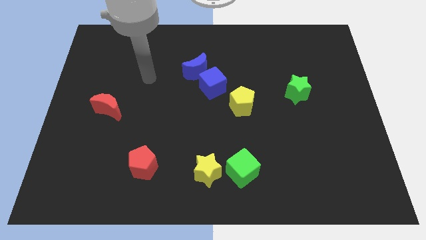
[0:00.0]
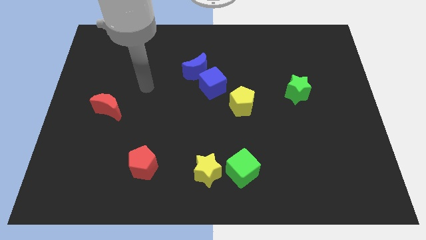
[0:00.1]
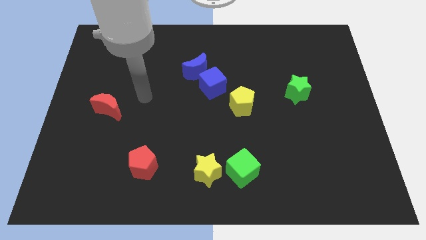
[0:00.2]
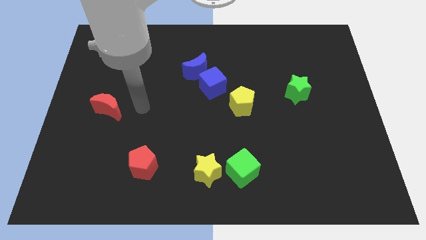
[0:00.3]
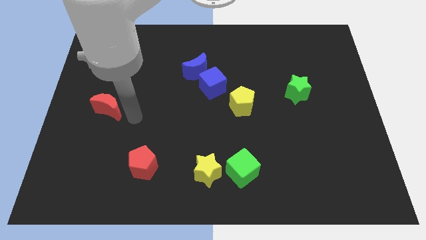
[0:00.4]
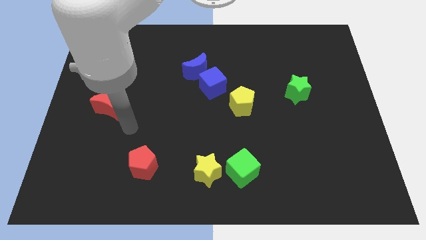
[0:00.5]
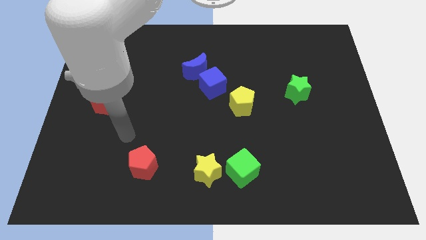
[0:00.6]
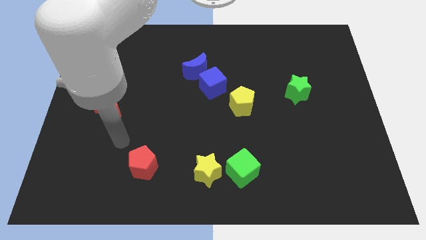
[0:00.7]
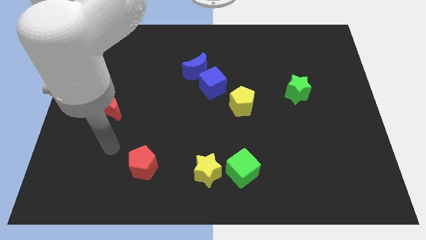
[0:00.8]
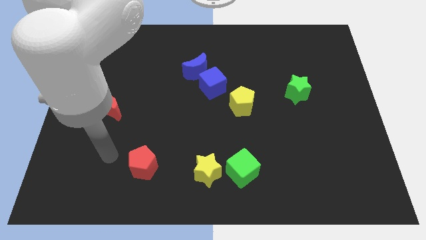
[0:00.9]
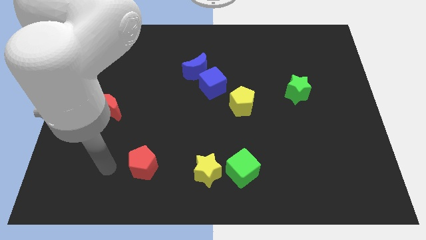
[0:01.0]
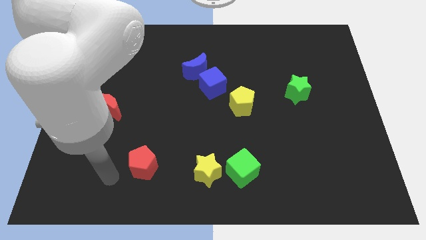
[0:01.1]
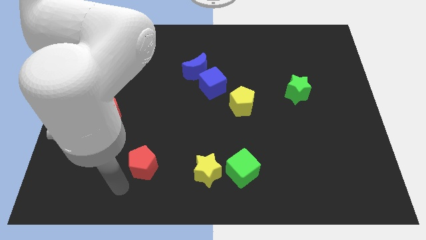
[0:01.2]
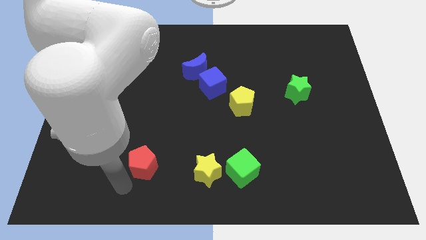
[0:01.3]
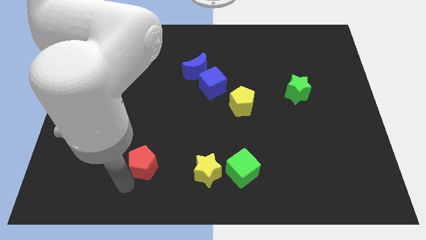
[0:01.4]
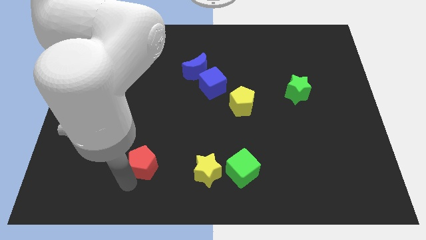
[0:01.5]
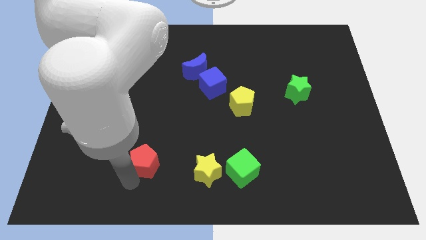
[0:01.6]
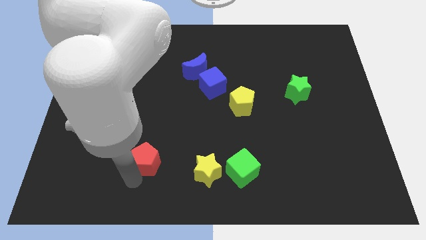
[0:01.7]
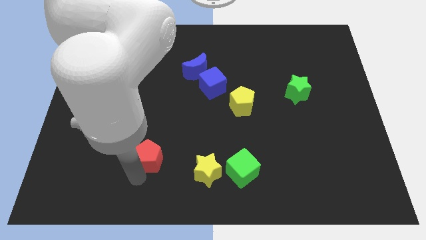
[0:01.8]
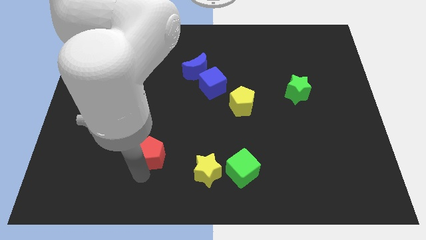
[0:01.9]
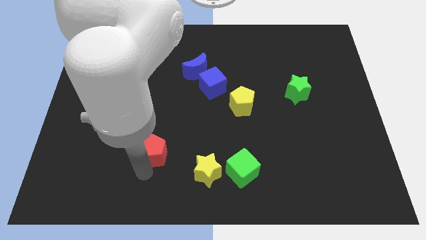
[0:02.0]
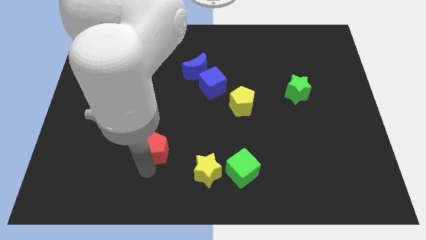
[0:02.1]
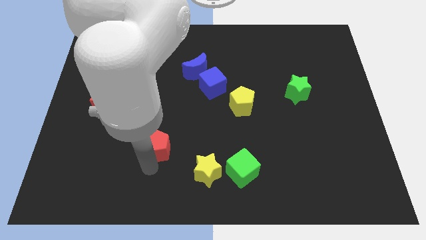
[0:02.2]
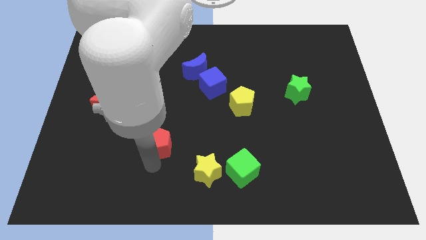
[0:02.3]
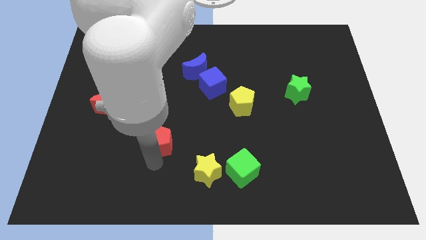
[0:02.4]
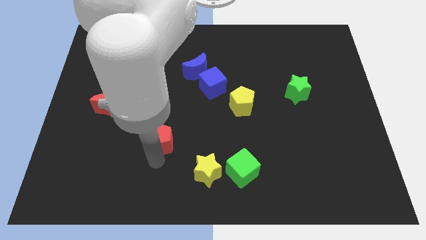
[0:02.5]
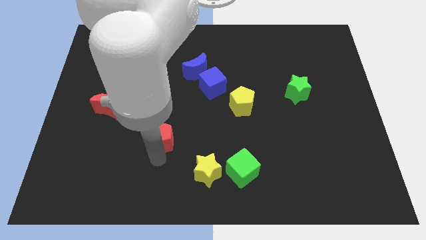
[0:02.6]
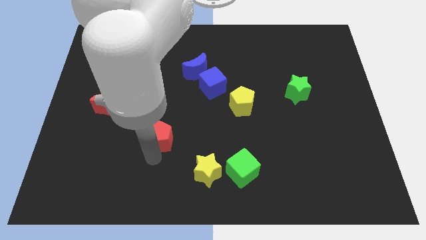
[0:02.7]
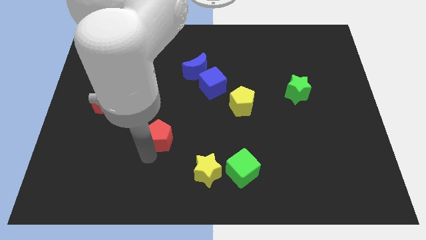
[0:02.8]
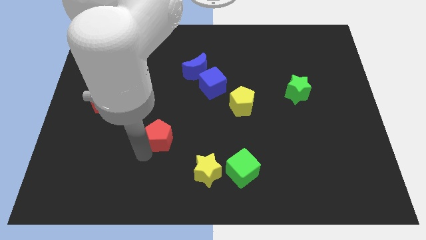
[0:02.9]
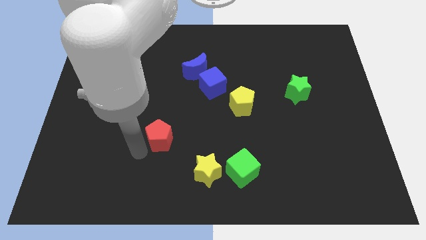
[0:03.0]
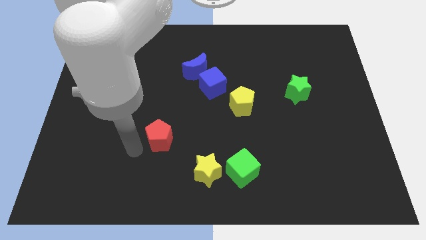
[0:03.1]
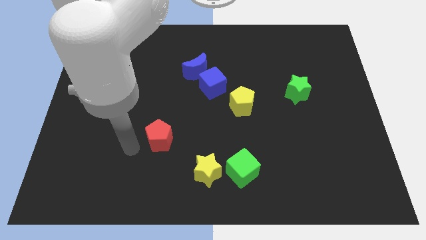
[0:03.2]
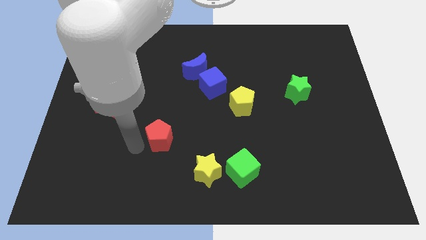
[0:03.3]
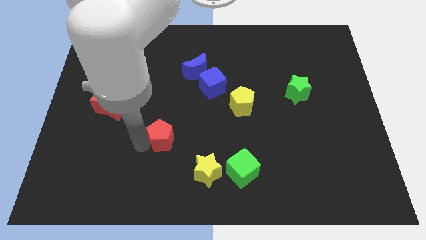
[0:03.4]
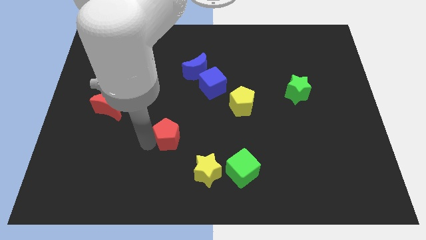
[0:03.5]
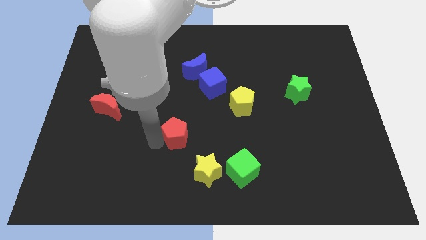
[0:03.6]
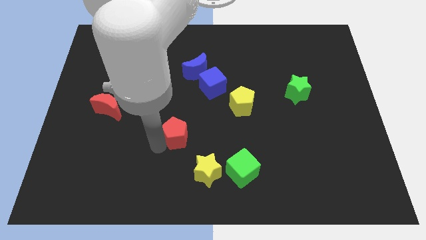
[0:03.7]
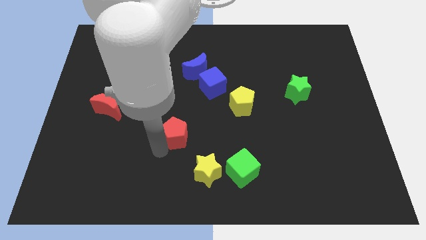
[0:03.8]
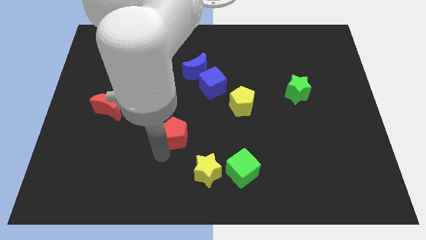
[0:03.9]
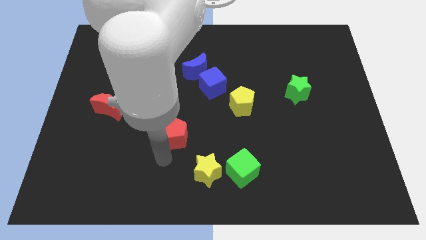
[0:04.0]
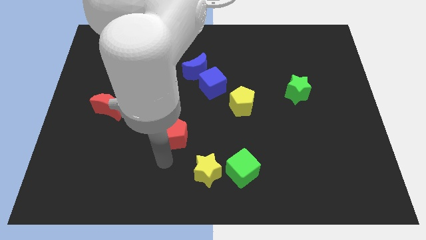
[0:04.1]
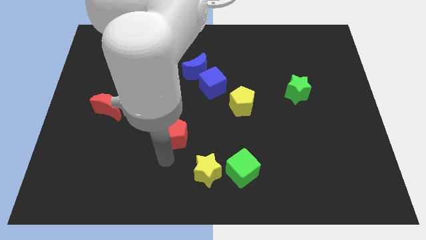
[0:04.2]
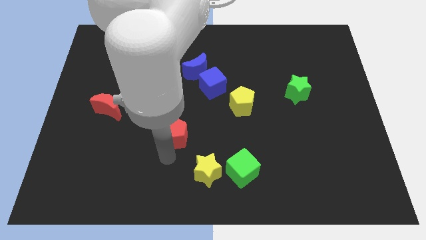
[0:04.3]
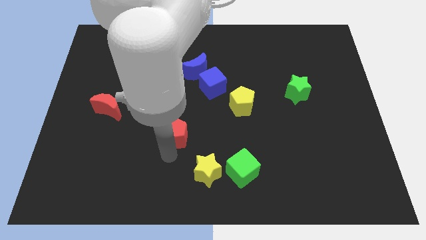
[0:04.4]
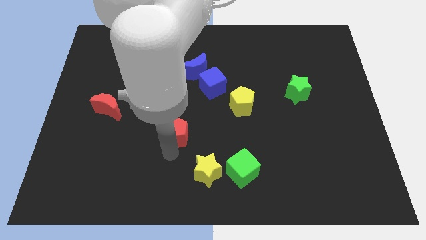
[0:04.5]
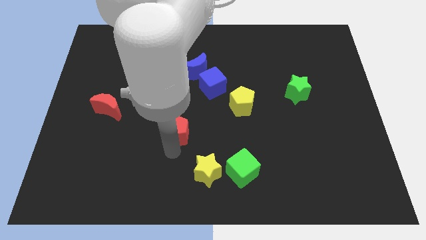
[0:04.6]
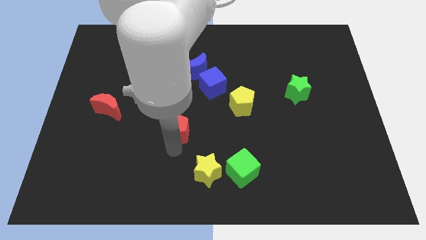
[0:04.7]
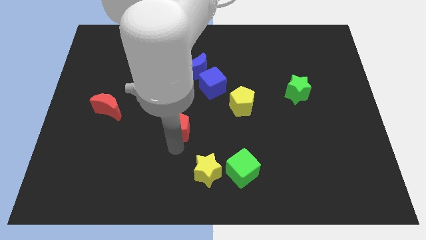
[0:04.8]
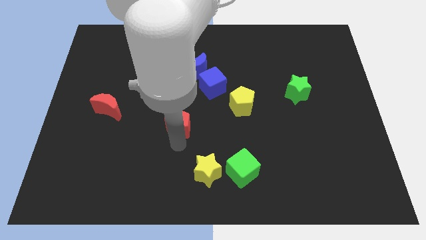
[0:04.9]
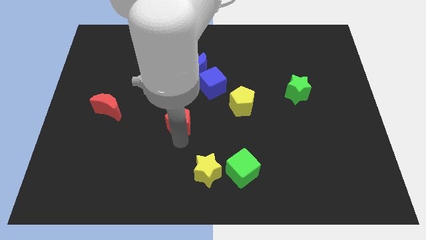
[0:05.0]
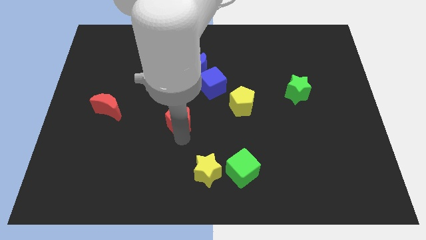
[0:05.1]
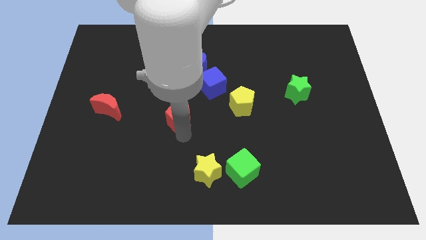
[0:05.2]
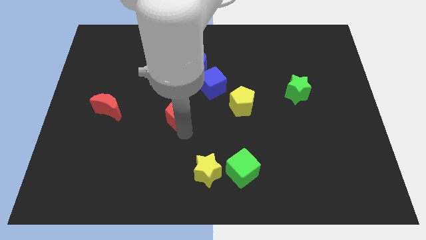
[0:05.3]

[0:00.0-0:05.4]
move the red pentagon to the bottom of the blue moon

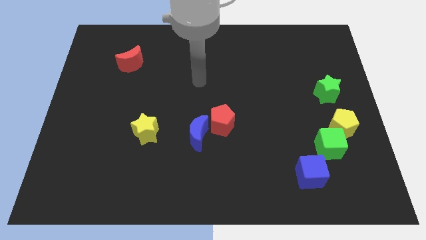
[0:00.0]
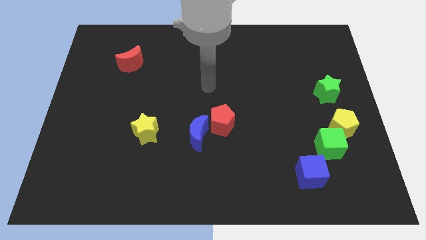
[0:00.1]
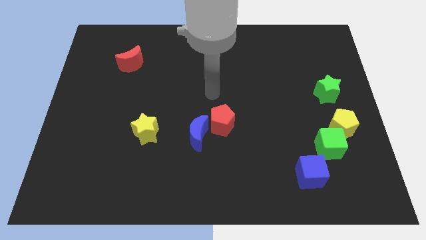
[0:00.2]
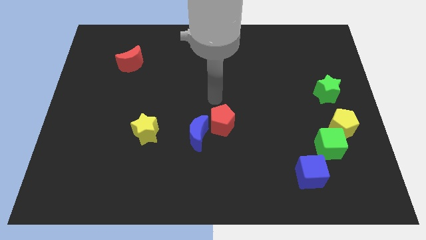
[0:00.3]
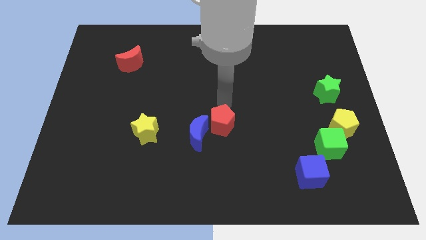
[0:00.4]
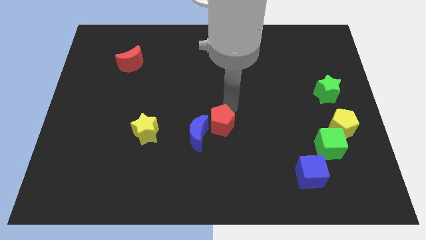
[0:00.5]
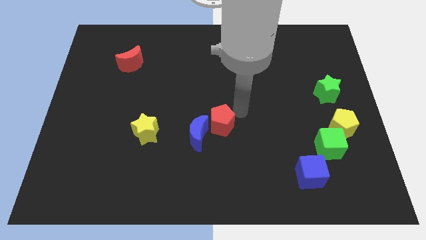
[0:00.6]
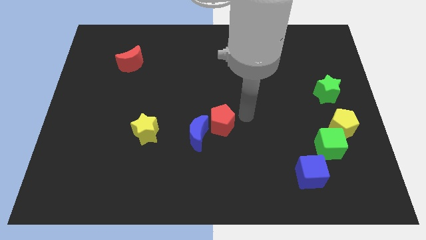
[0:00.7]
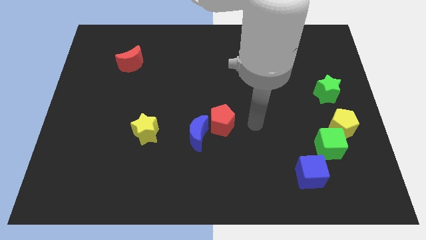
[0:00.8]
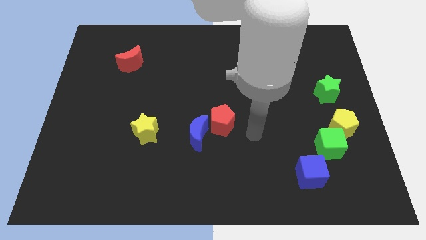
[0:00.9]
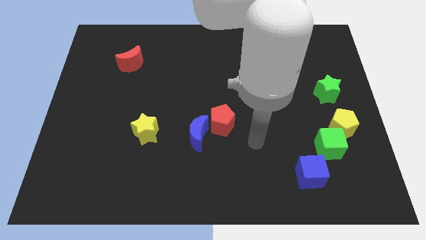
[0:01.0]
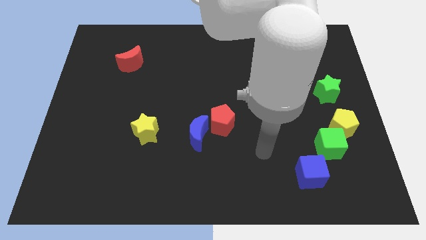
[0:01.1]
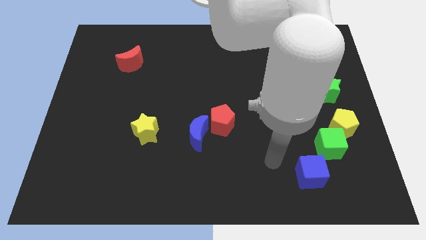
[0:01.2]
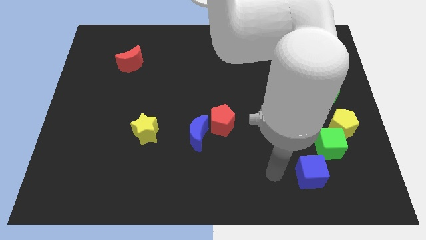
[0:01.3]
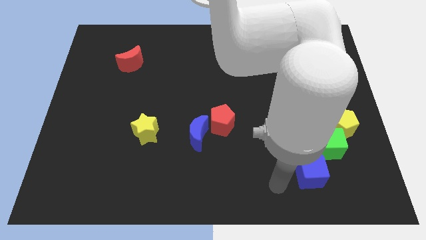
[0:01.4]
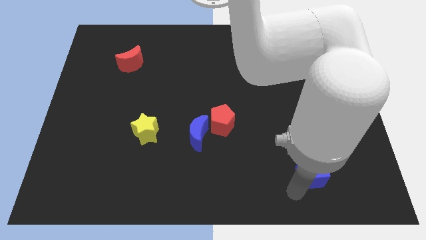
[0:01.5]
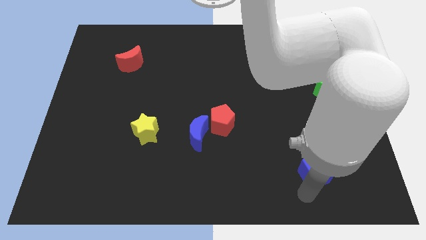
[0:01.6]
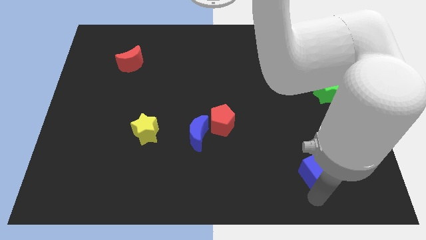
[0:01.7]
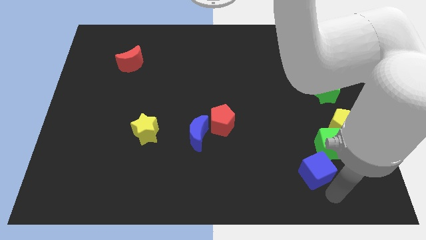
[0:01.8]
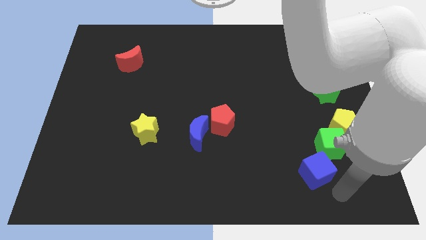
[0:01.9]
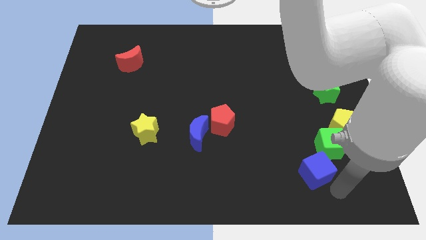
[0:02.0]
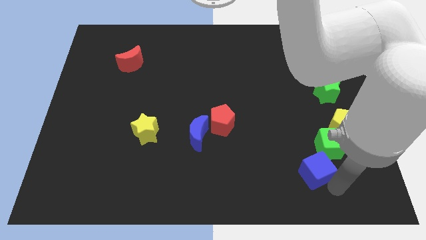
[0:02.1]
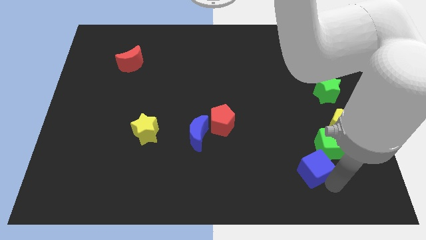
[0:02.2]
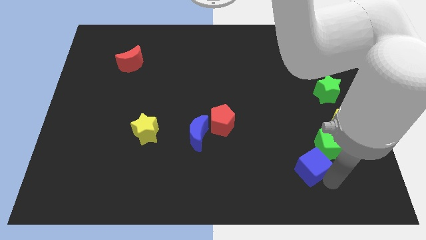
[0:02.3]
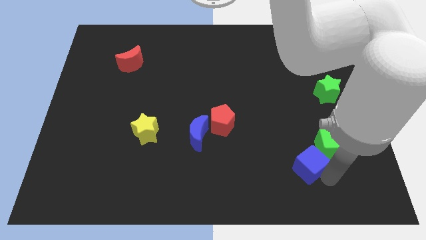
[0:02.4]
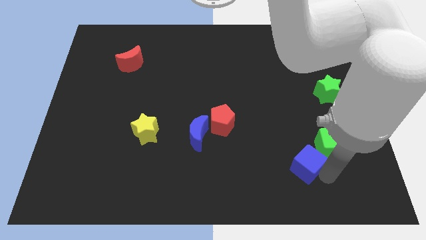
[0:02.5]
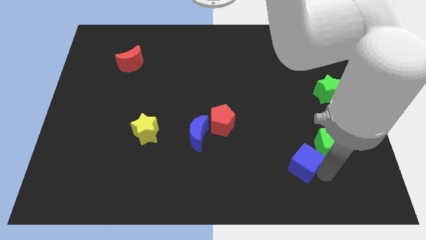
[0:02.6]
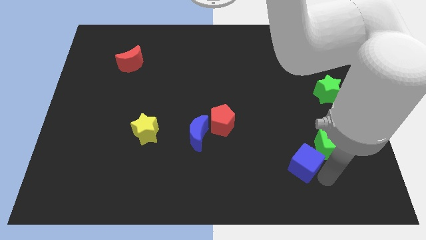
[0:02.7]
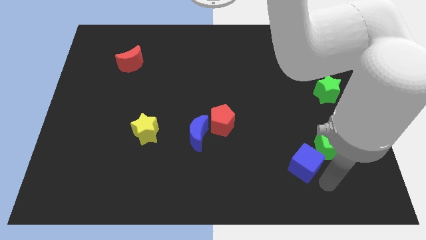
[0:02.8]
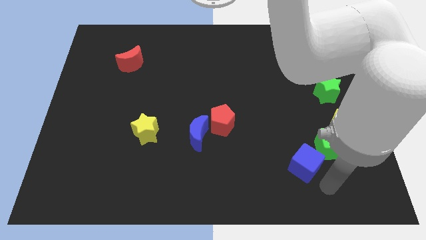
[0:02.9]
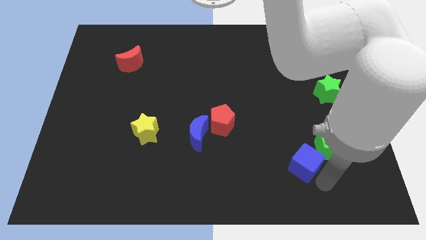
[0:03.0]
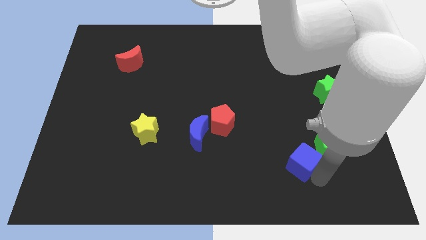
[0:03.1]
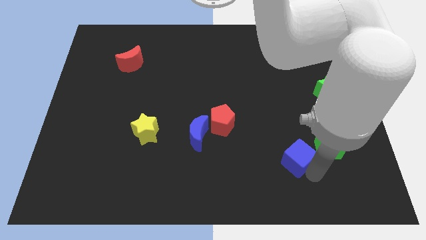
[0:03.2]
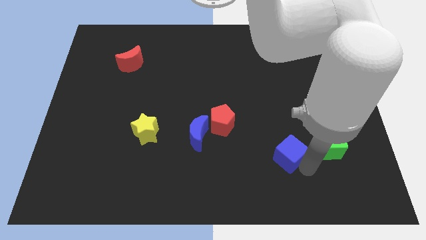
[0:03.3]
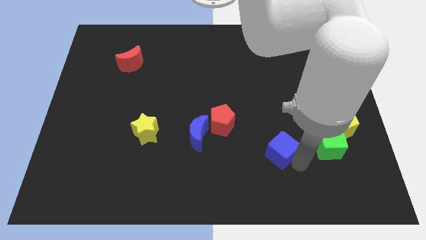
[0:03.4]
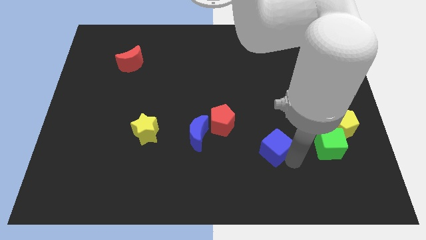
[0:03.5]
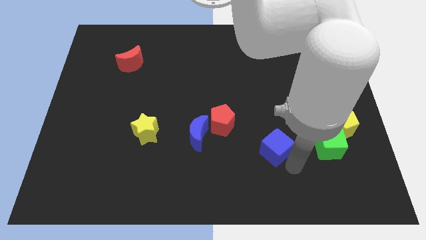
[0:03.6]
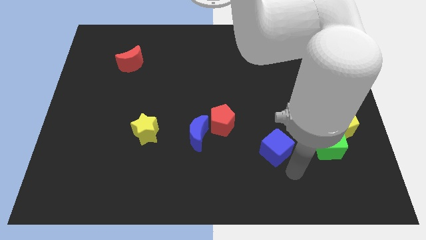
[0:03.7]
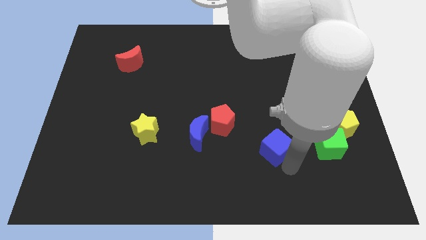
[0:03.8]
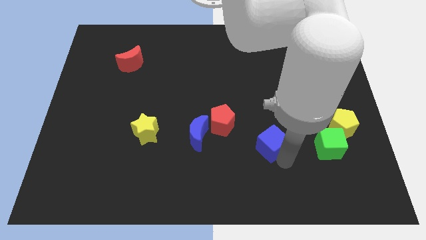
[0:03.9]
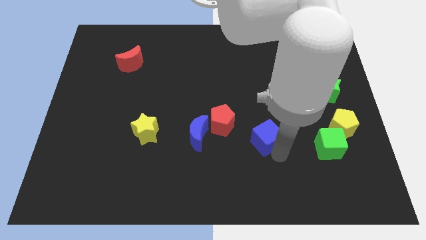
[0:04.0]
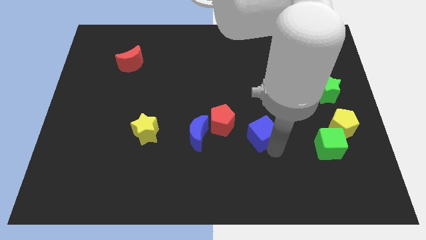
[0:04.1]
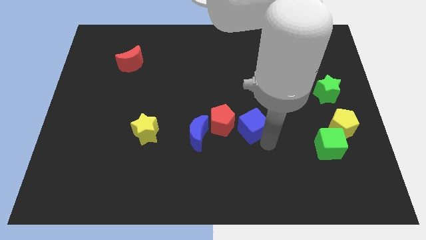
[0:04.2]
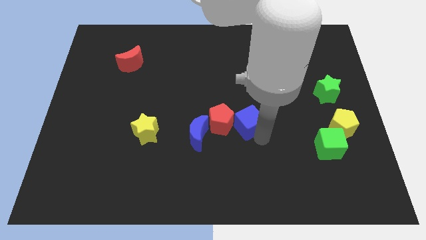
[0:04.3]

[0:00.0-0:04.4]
push the blue cube to the top right of the red pentagon
